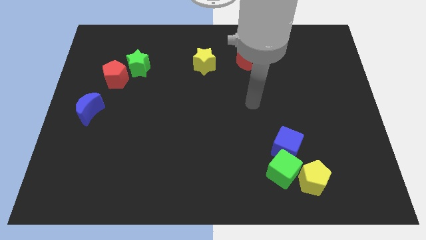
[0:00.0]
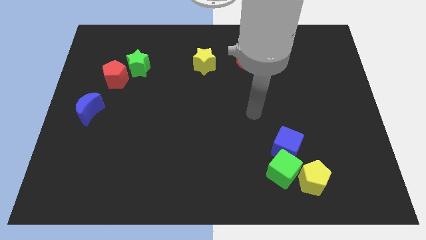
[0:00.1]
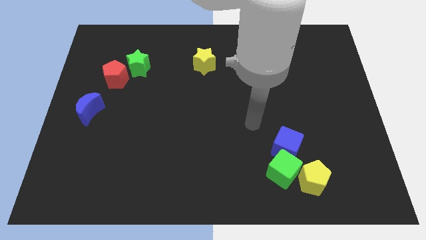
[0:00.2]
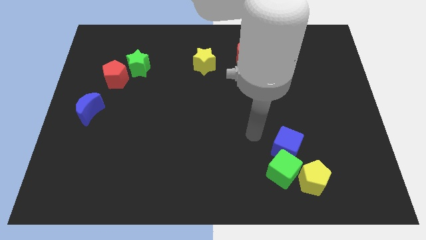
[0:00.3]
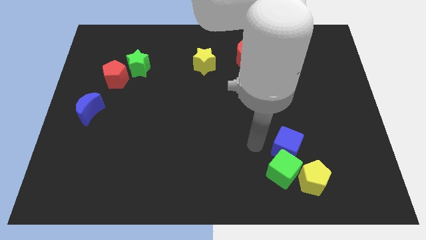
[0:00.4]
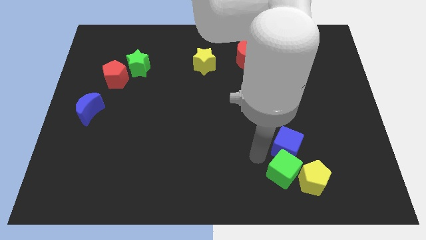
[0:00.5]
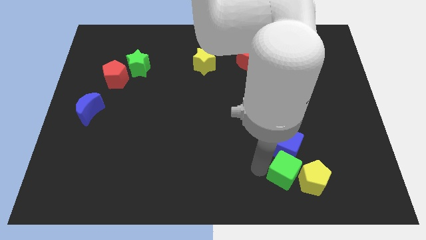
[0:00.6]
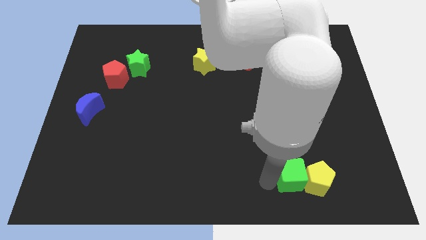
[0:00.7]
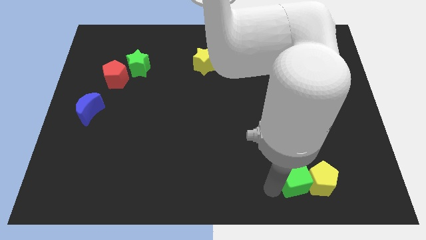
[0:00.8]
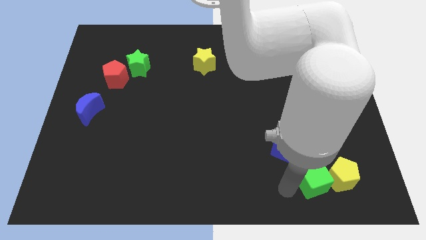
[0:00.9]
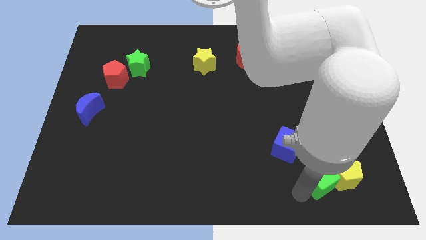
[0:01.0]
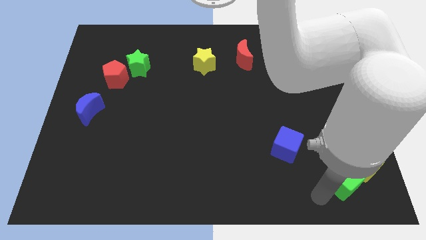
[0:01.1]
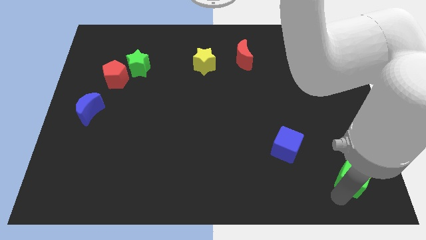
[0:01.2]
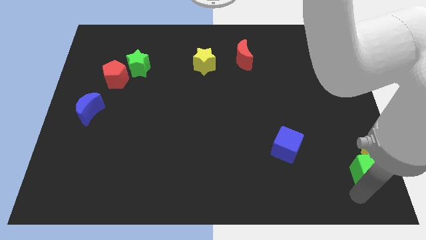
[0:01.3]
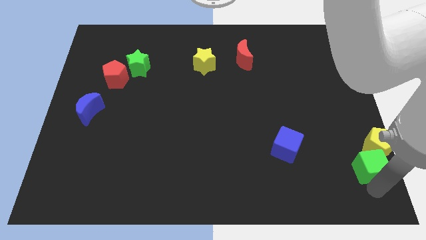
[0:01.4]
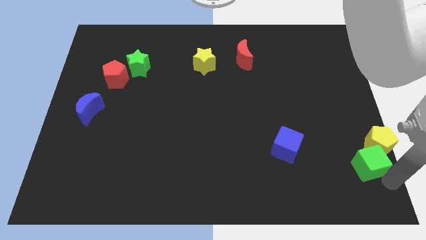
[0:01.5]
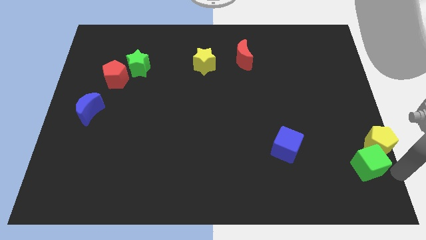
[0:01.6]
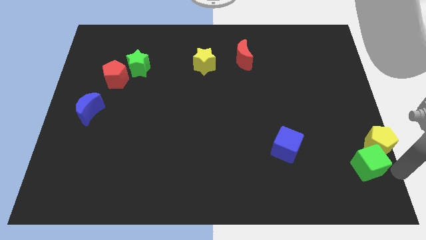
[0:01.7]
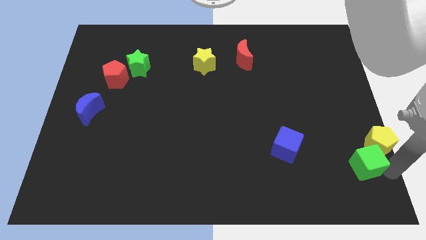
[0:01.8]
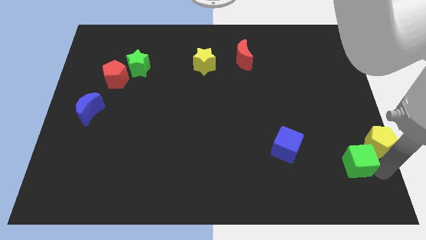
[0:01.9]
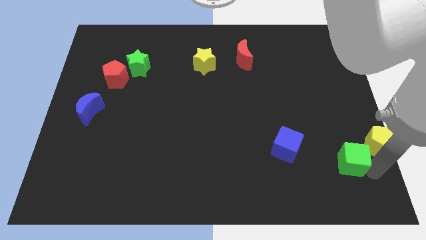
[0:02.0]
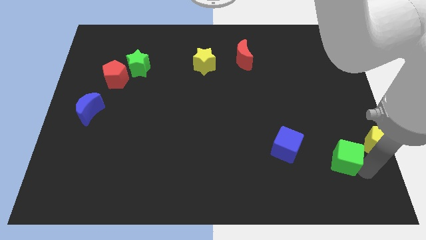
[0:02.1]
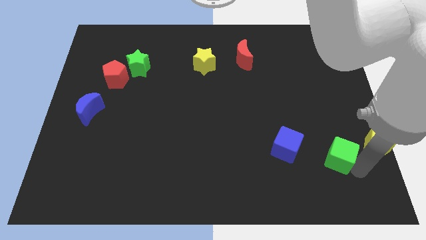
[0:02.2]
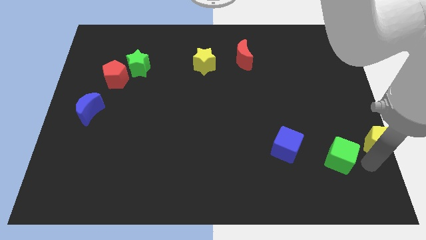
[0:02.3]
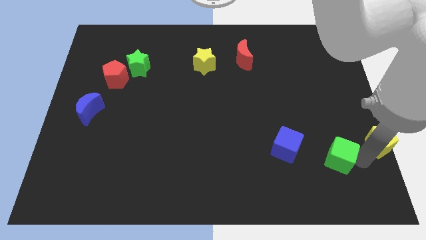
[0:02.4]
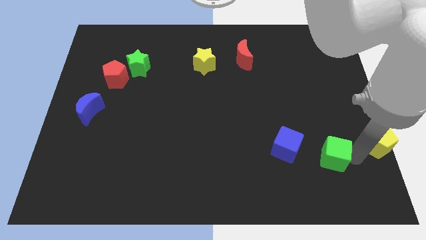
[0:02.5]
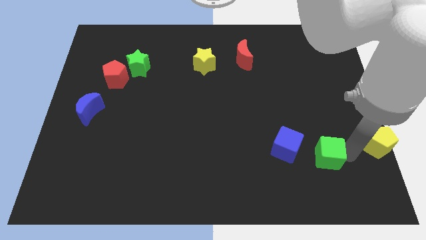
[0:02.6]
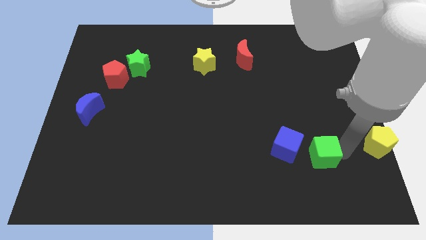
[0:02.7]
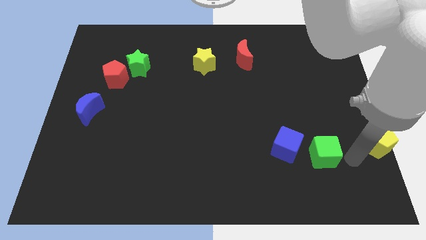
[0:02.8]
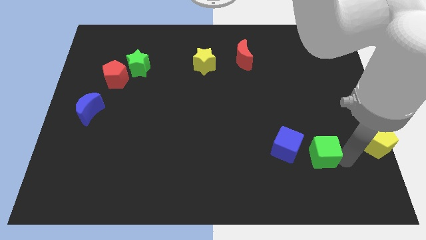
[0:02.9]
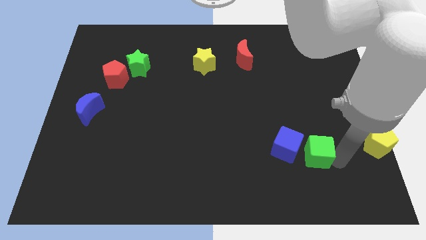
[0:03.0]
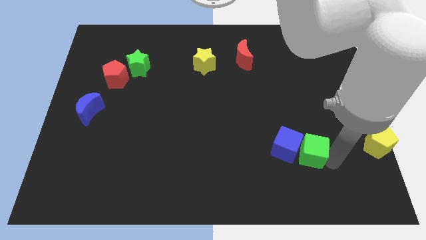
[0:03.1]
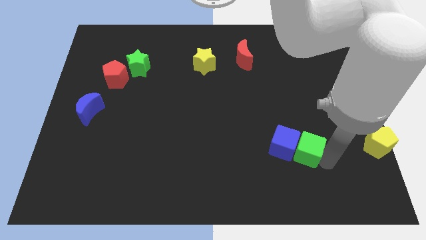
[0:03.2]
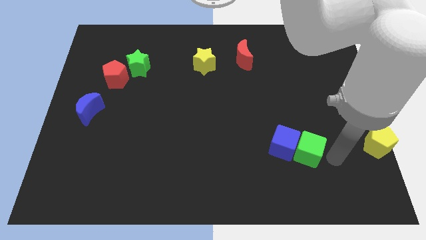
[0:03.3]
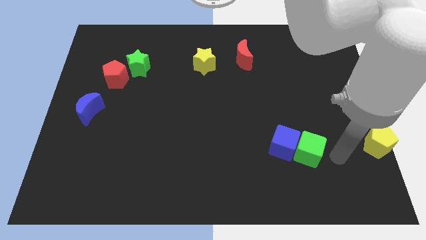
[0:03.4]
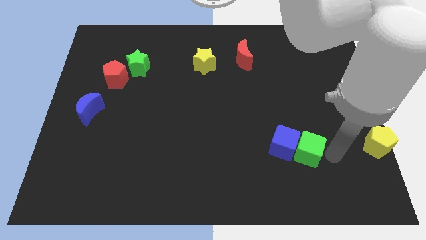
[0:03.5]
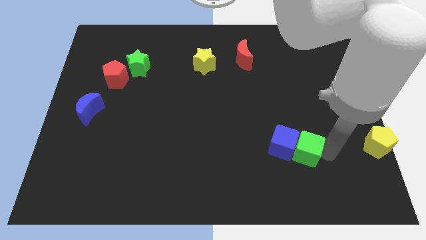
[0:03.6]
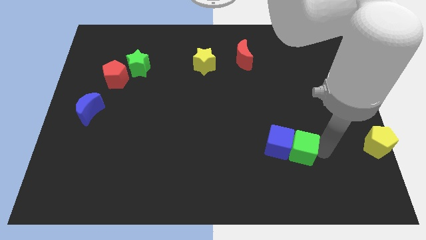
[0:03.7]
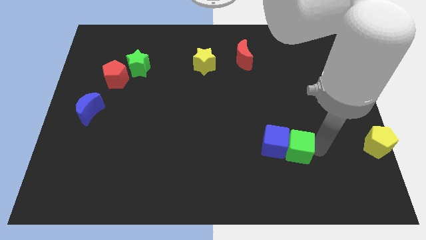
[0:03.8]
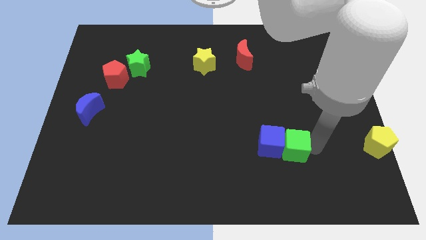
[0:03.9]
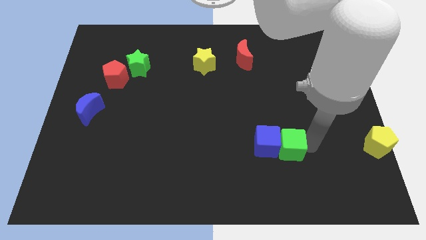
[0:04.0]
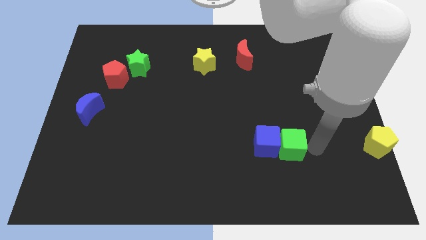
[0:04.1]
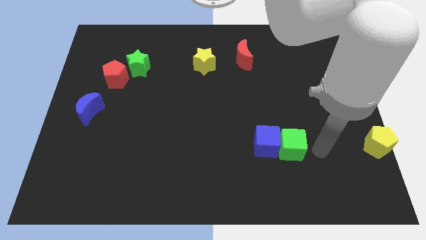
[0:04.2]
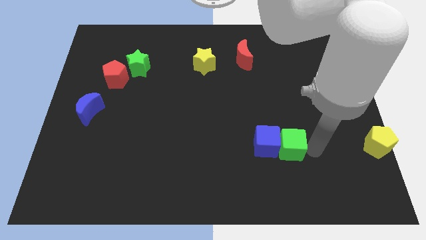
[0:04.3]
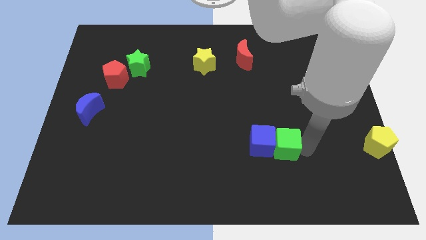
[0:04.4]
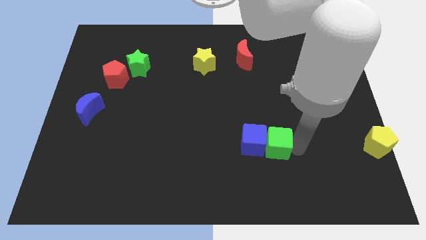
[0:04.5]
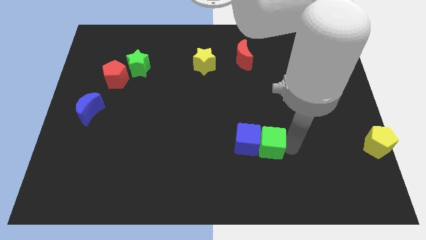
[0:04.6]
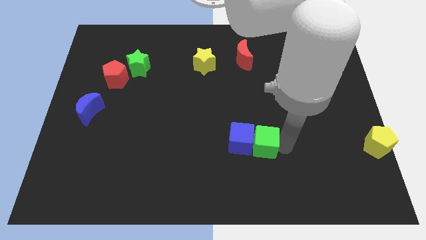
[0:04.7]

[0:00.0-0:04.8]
move the green cube diagonally up and to the left a bit

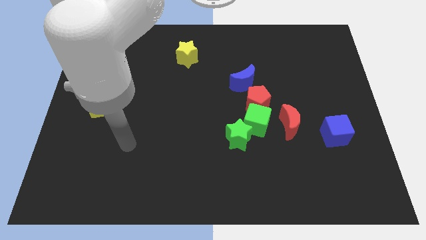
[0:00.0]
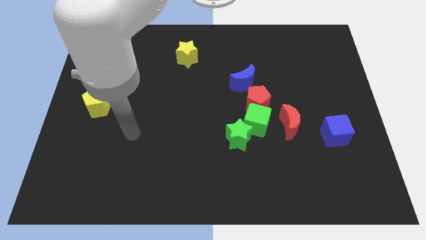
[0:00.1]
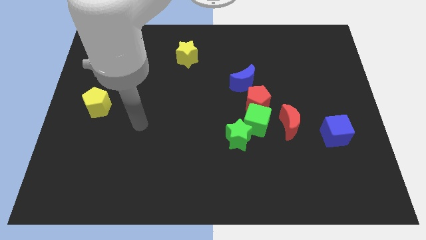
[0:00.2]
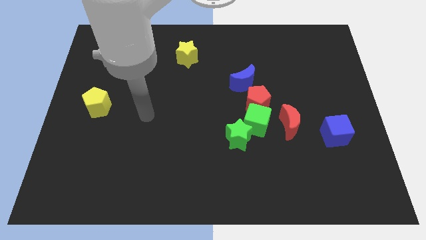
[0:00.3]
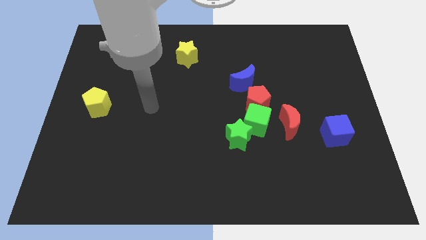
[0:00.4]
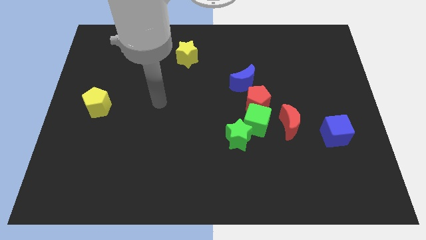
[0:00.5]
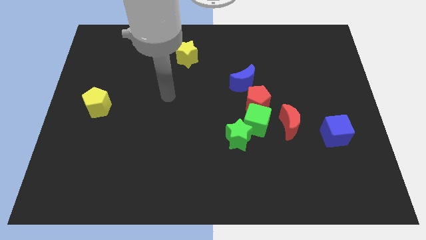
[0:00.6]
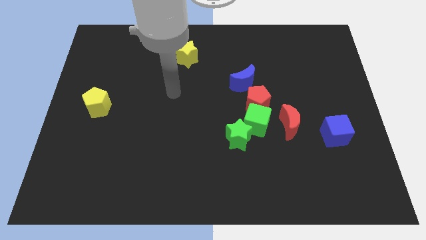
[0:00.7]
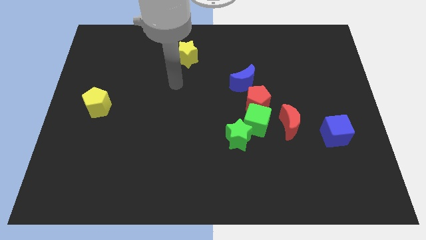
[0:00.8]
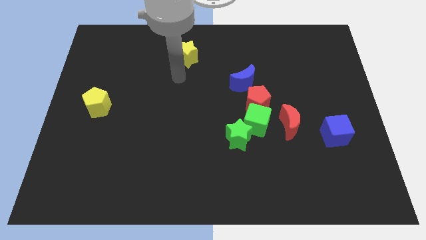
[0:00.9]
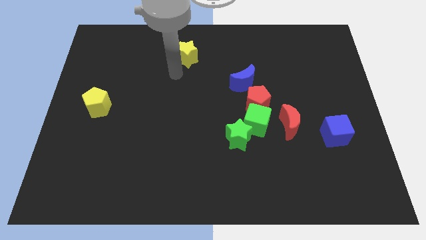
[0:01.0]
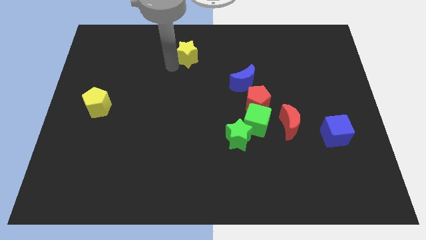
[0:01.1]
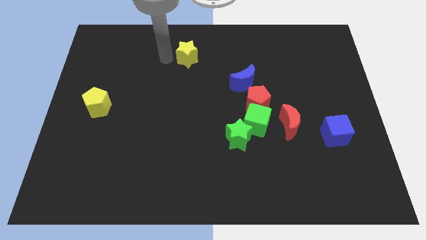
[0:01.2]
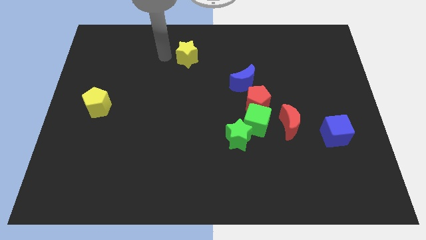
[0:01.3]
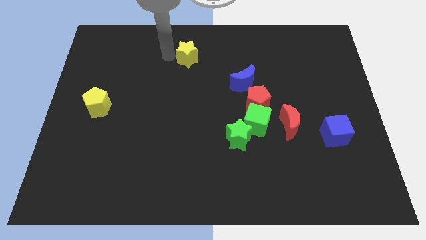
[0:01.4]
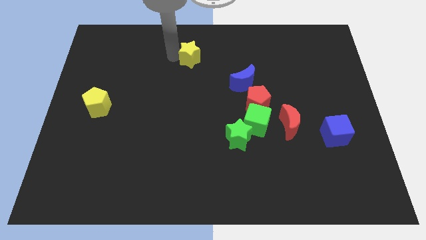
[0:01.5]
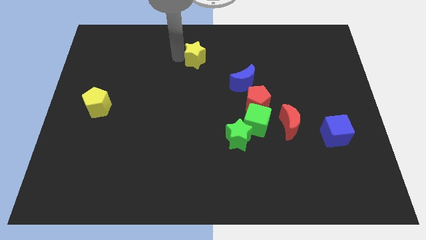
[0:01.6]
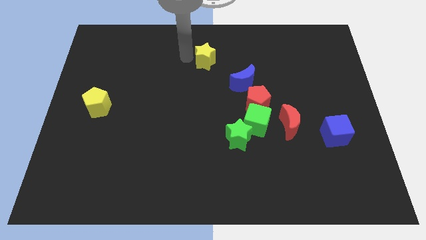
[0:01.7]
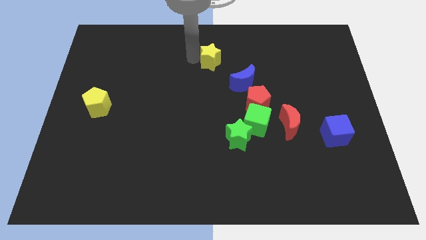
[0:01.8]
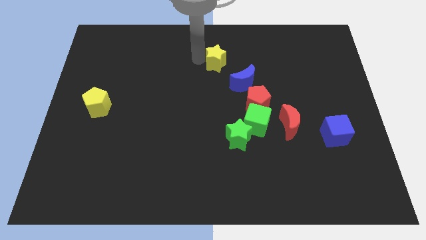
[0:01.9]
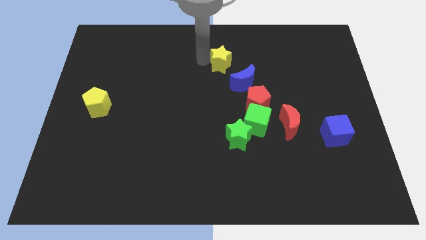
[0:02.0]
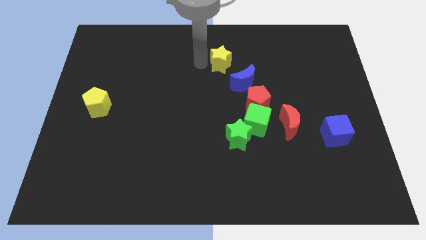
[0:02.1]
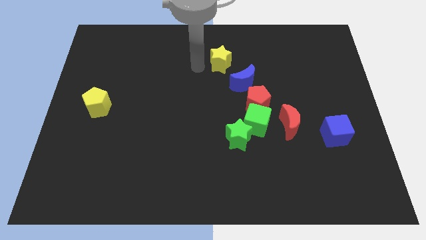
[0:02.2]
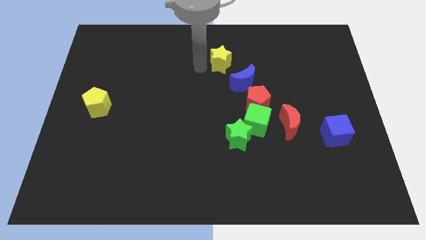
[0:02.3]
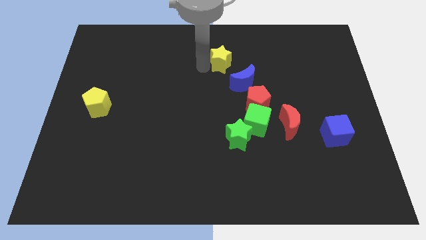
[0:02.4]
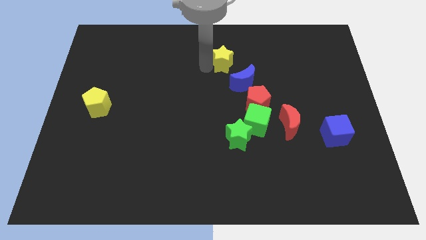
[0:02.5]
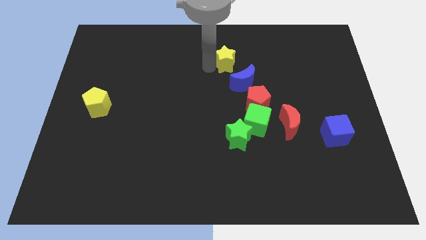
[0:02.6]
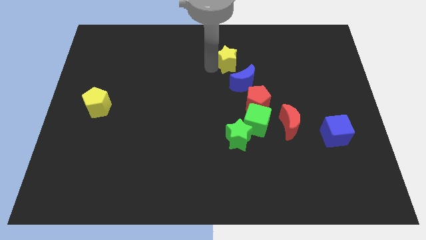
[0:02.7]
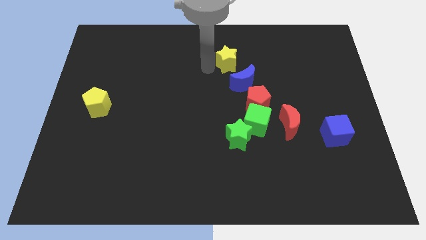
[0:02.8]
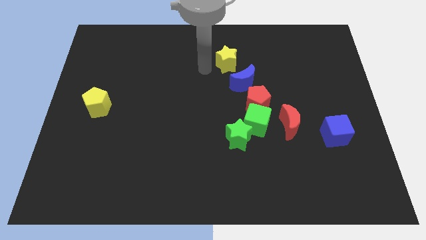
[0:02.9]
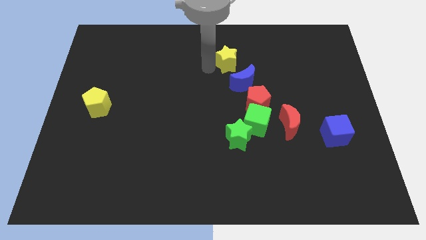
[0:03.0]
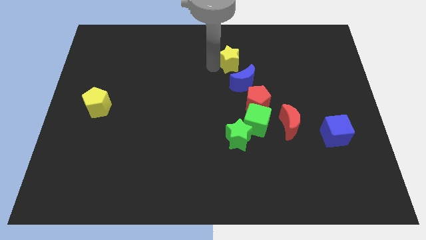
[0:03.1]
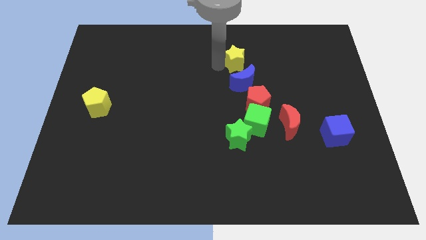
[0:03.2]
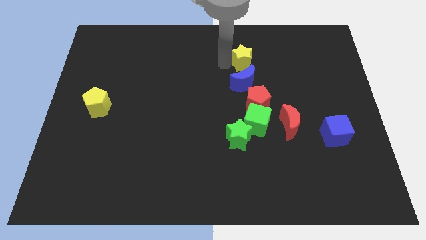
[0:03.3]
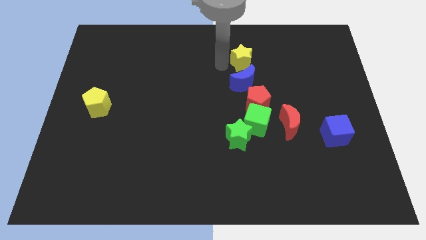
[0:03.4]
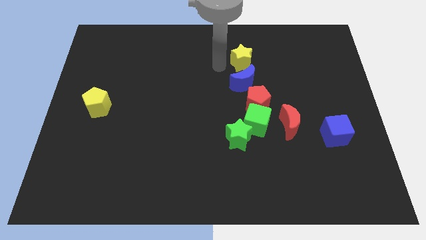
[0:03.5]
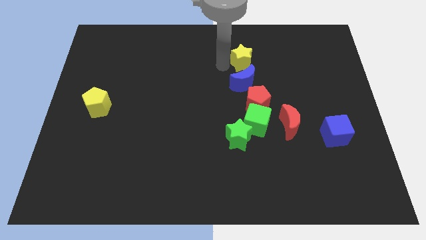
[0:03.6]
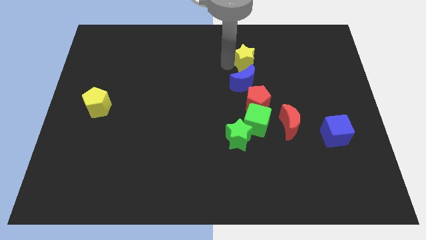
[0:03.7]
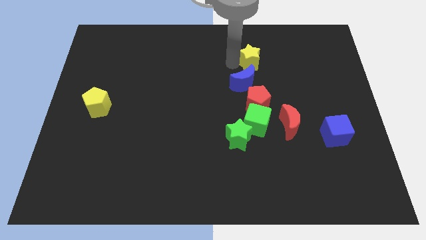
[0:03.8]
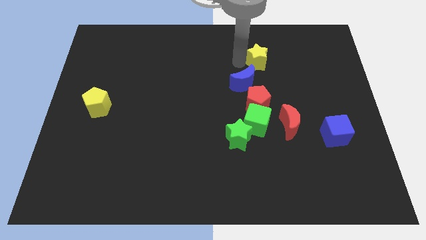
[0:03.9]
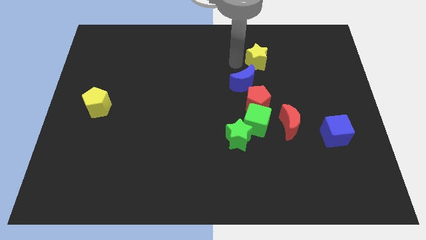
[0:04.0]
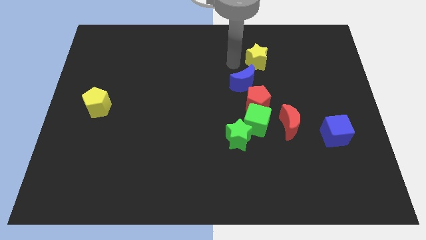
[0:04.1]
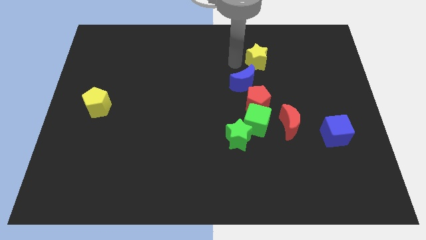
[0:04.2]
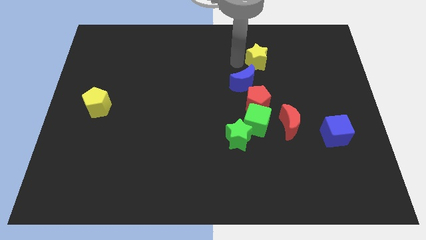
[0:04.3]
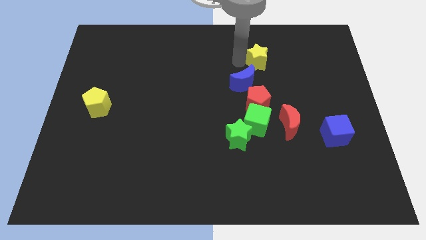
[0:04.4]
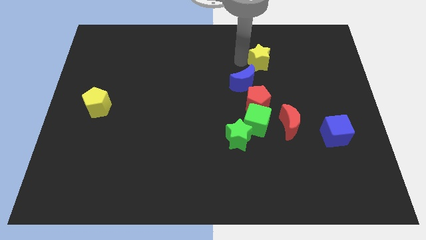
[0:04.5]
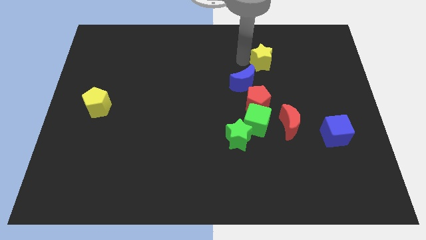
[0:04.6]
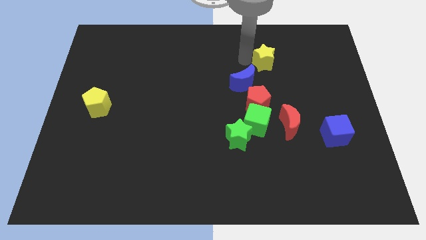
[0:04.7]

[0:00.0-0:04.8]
push the yellow star right
